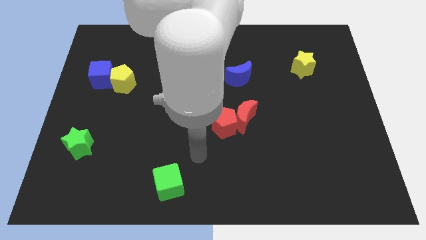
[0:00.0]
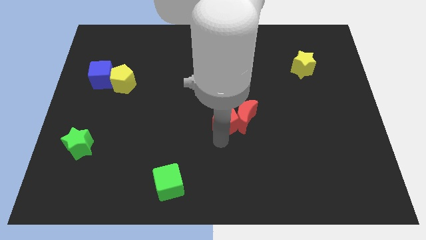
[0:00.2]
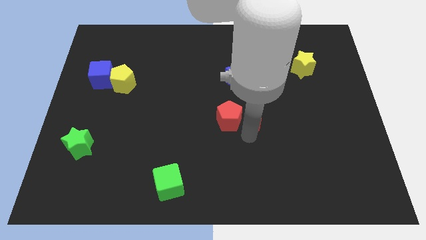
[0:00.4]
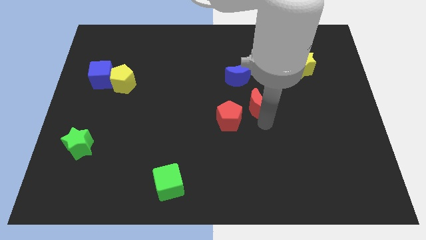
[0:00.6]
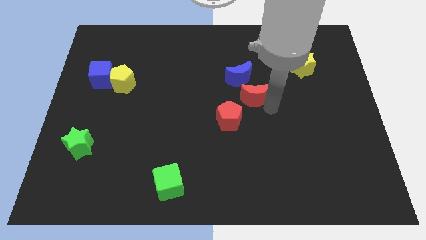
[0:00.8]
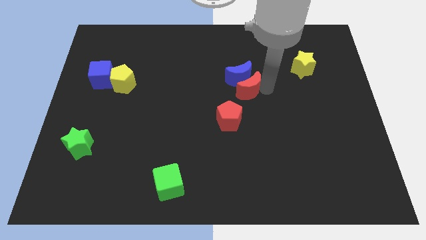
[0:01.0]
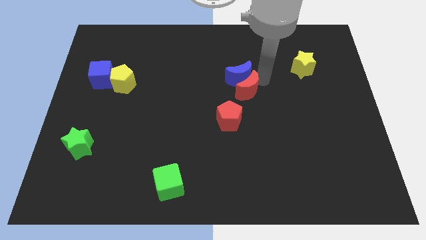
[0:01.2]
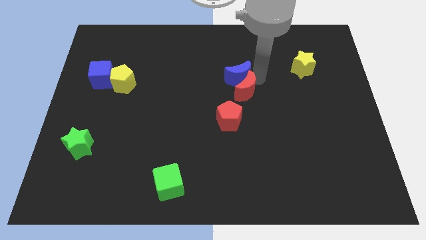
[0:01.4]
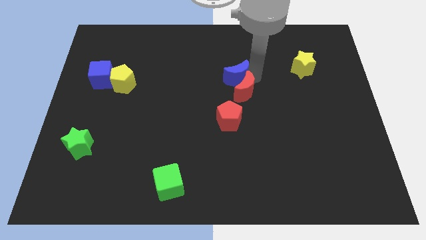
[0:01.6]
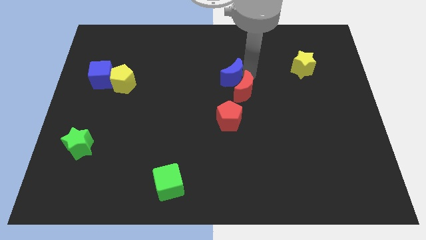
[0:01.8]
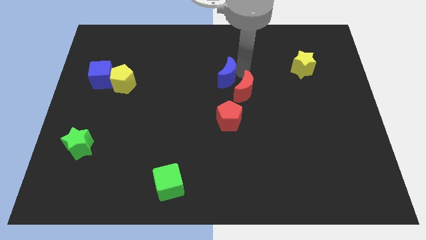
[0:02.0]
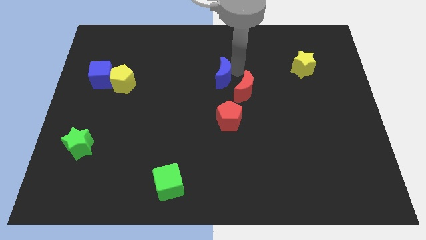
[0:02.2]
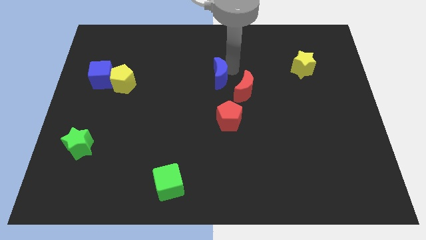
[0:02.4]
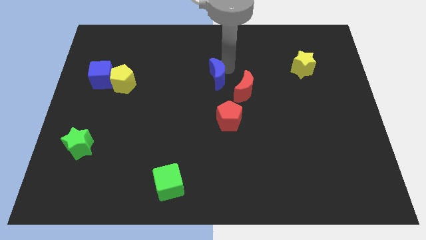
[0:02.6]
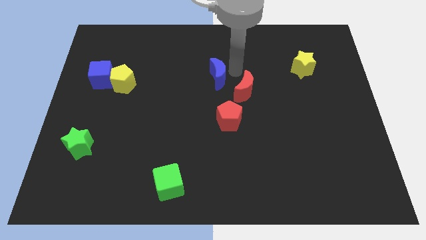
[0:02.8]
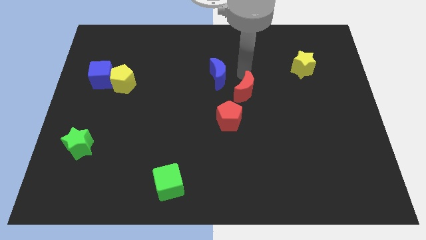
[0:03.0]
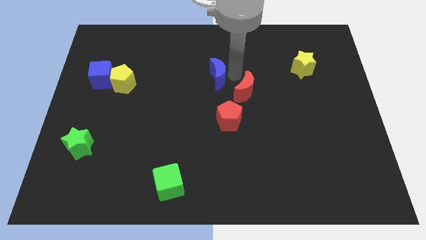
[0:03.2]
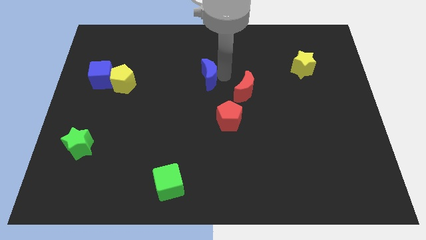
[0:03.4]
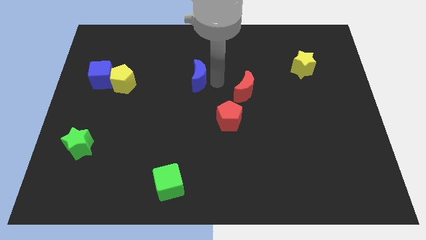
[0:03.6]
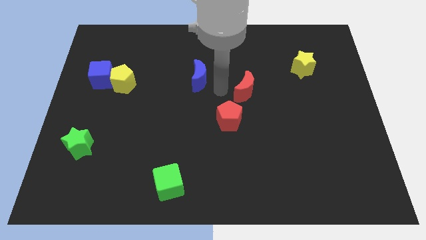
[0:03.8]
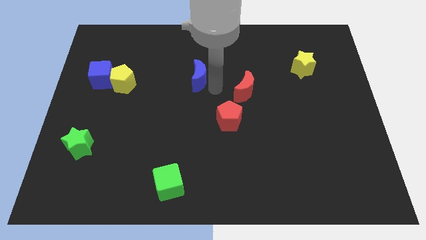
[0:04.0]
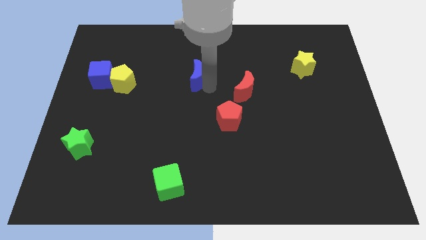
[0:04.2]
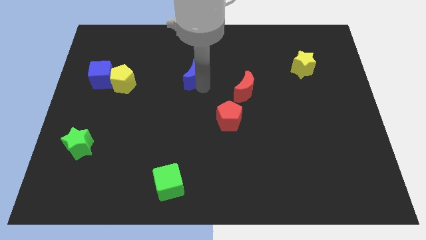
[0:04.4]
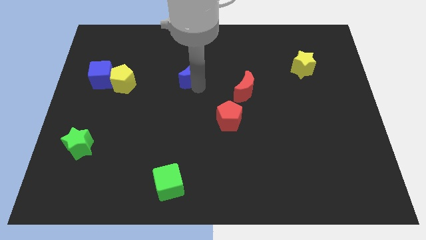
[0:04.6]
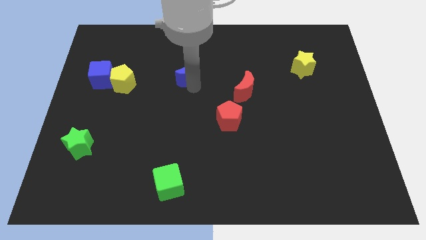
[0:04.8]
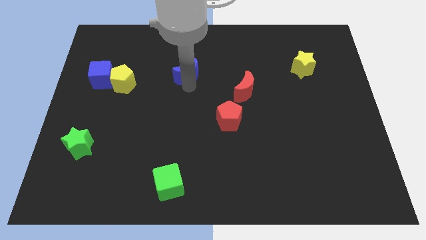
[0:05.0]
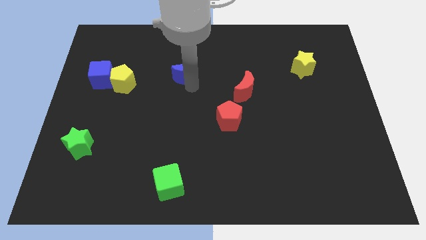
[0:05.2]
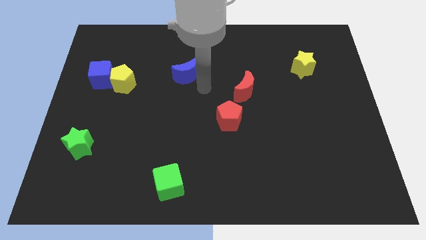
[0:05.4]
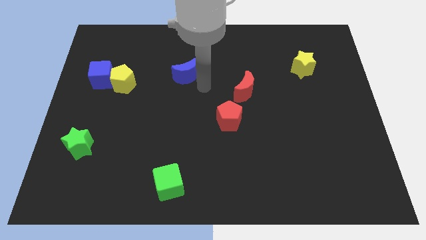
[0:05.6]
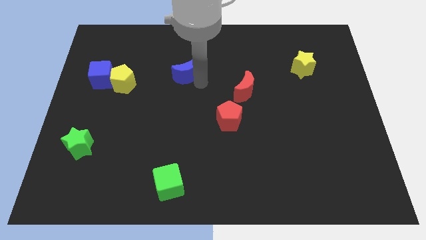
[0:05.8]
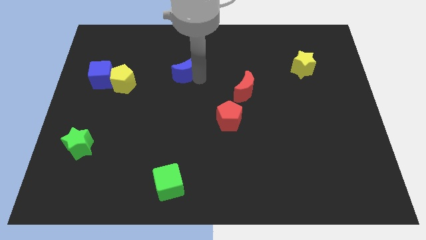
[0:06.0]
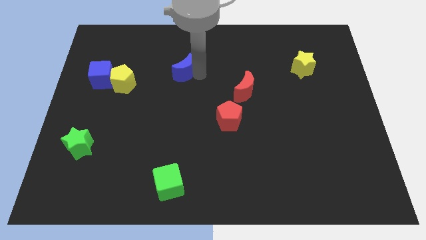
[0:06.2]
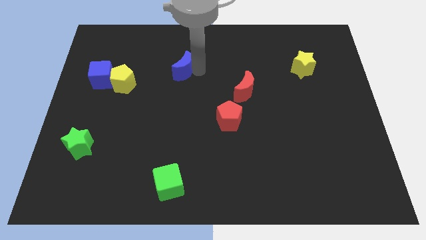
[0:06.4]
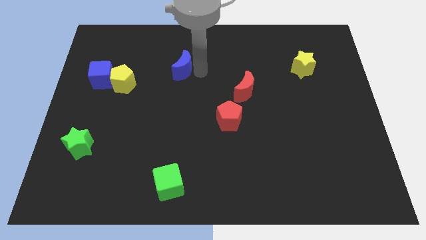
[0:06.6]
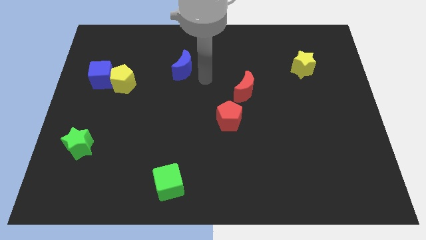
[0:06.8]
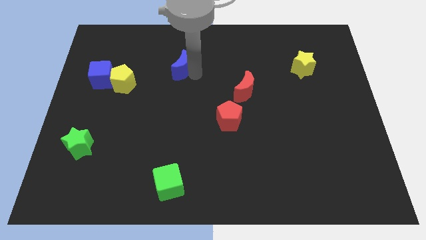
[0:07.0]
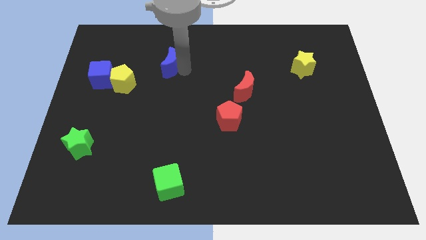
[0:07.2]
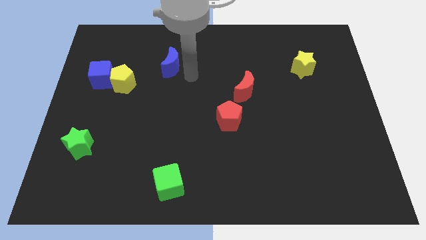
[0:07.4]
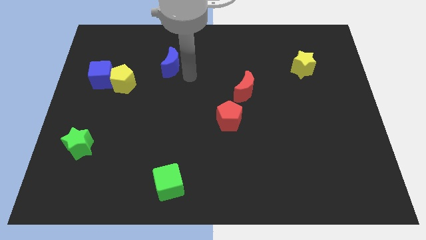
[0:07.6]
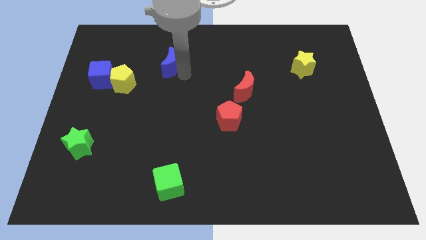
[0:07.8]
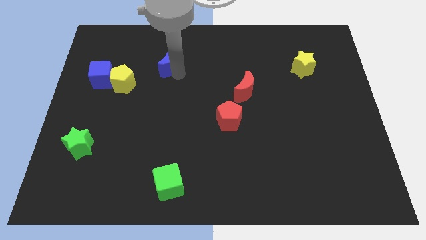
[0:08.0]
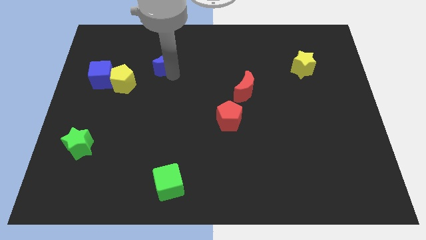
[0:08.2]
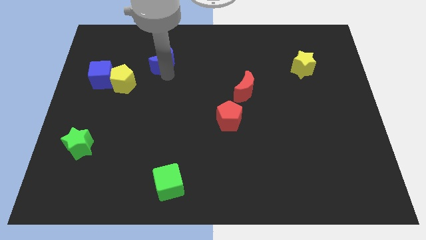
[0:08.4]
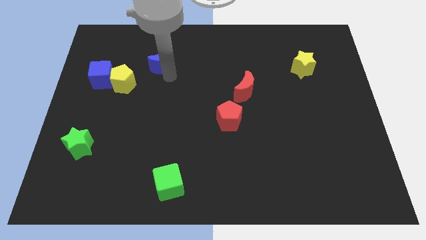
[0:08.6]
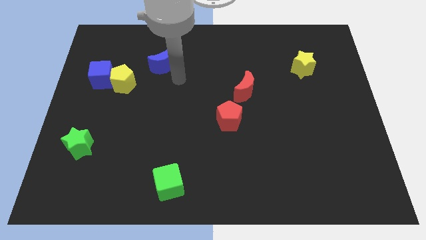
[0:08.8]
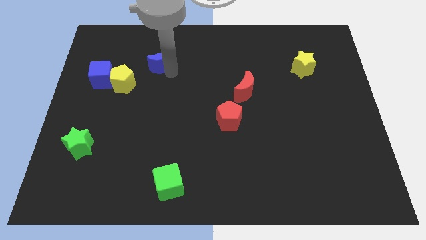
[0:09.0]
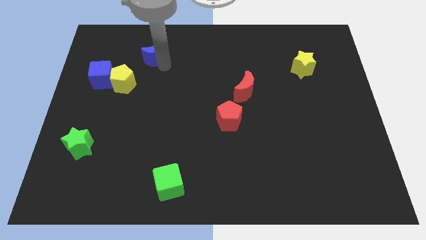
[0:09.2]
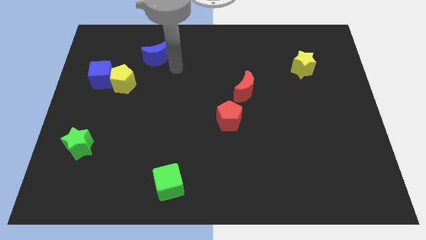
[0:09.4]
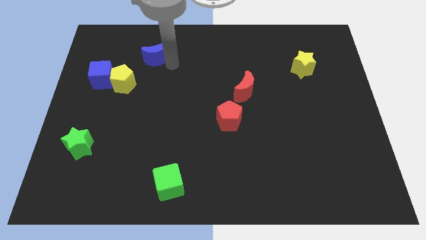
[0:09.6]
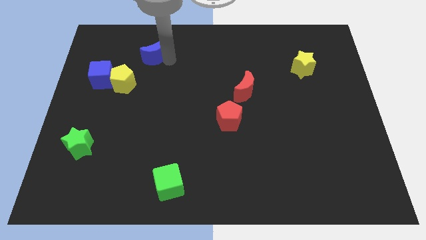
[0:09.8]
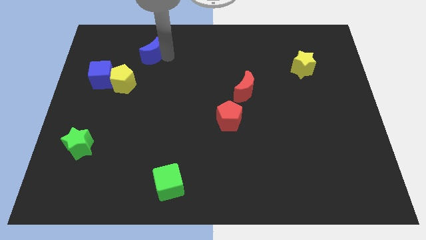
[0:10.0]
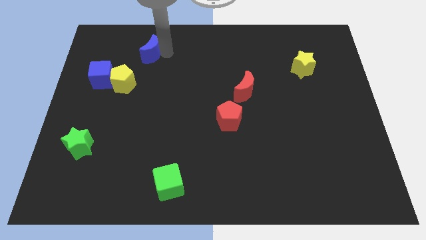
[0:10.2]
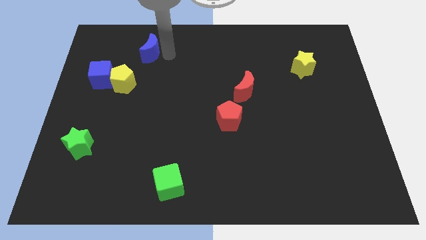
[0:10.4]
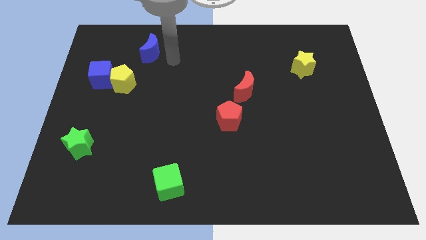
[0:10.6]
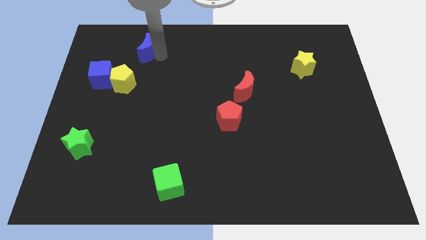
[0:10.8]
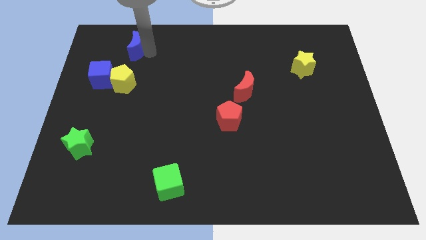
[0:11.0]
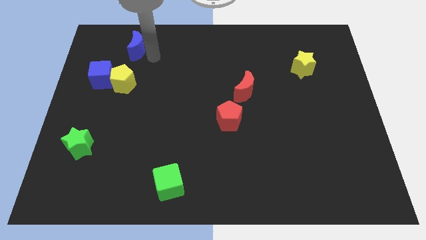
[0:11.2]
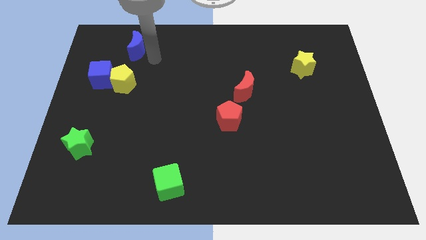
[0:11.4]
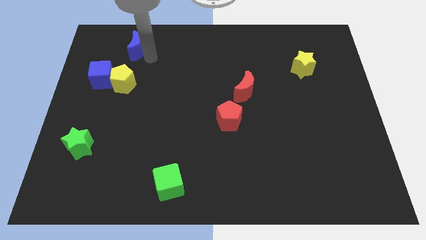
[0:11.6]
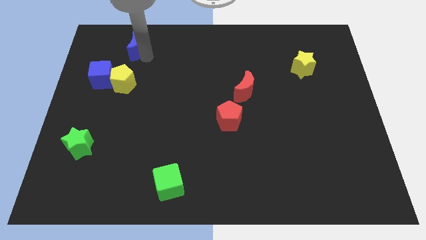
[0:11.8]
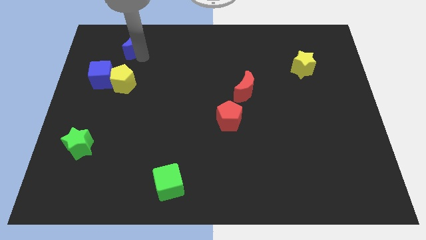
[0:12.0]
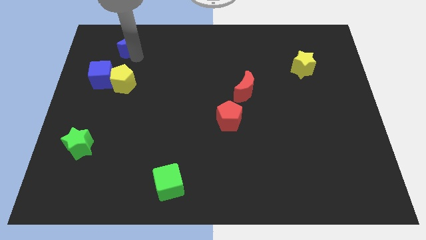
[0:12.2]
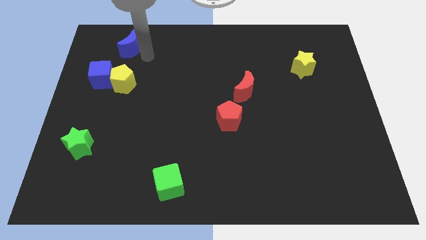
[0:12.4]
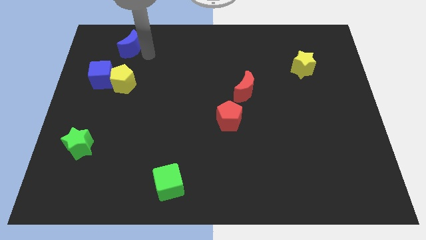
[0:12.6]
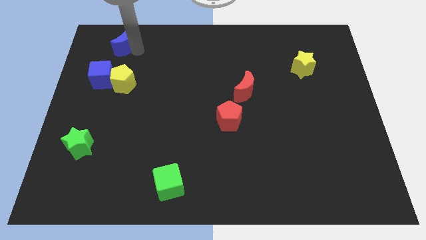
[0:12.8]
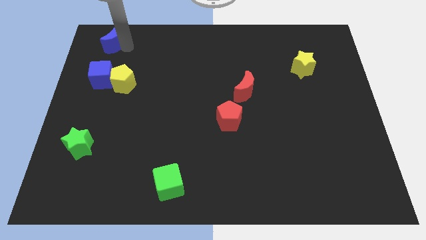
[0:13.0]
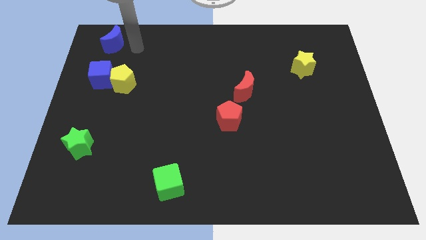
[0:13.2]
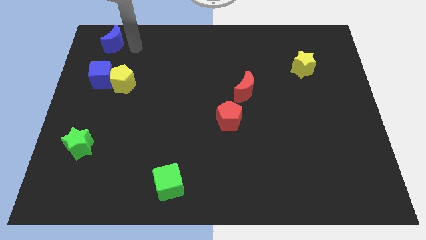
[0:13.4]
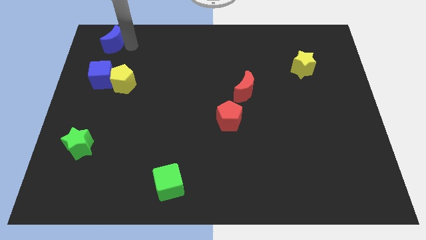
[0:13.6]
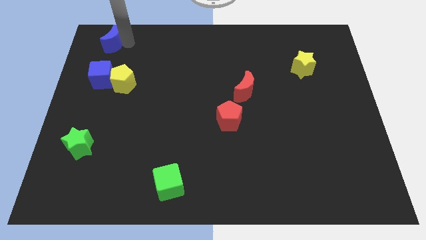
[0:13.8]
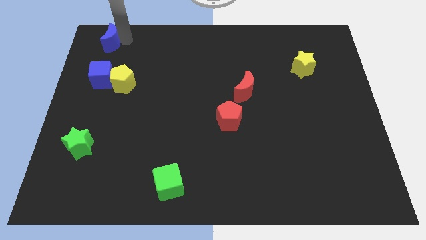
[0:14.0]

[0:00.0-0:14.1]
push the blue moon to the upper left corner
